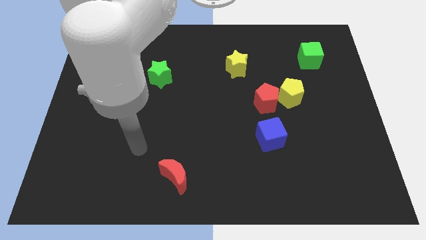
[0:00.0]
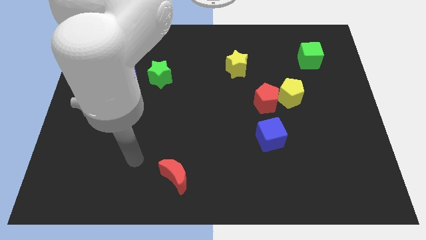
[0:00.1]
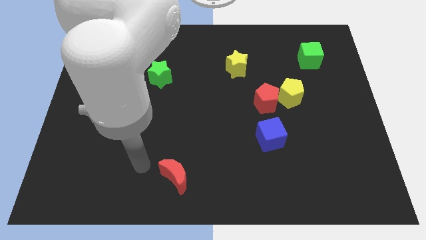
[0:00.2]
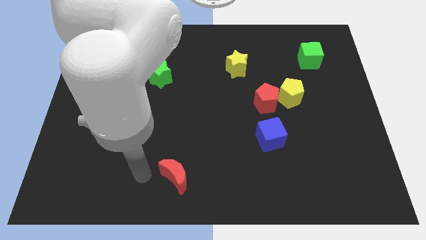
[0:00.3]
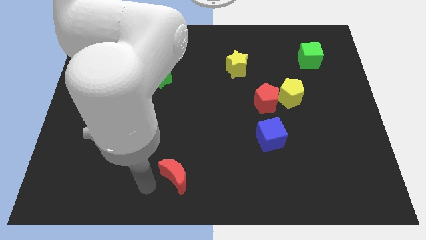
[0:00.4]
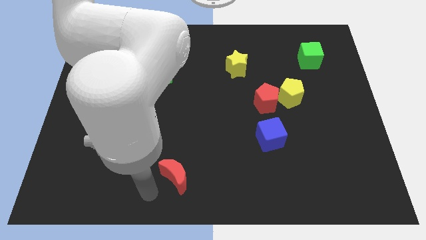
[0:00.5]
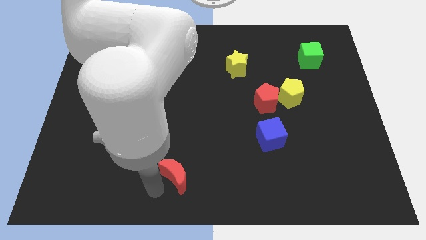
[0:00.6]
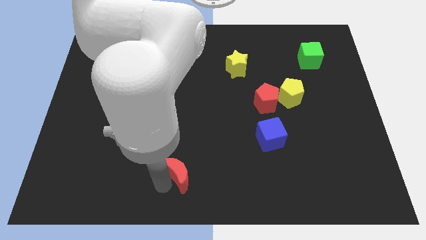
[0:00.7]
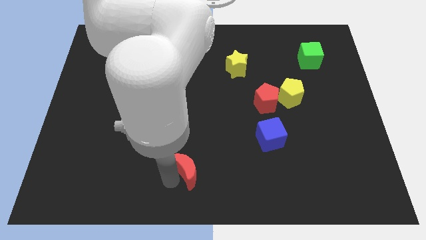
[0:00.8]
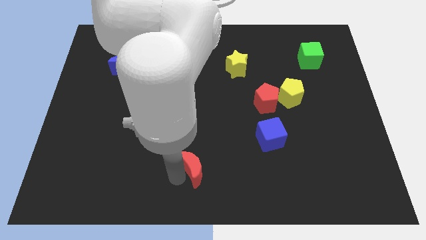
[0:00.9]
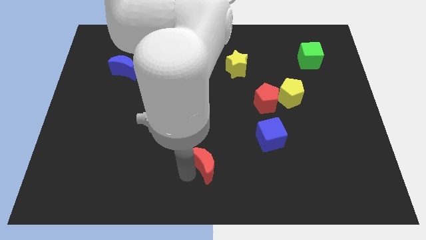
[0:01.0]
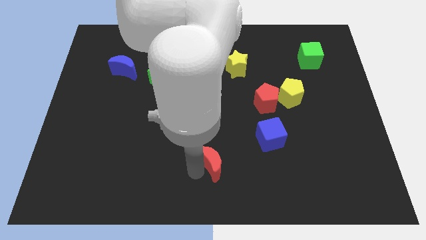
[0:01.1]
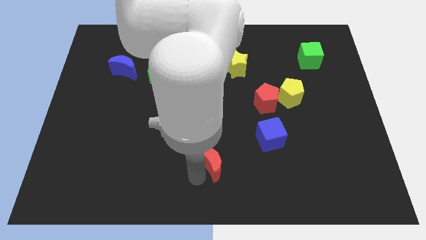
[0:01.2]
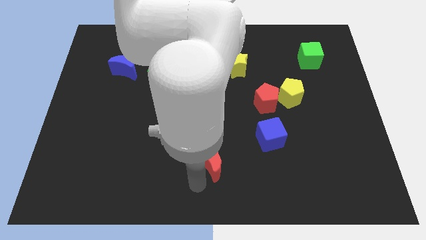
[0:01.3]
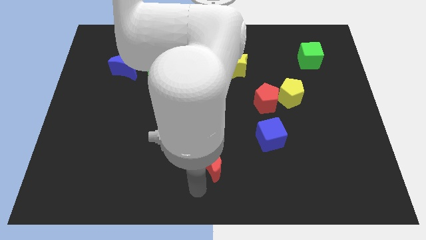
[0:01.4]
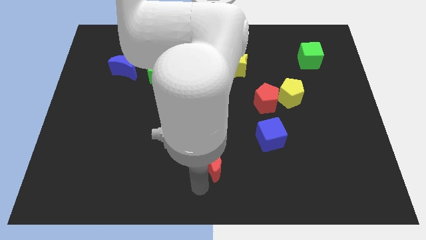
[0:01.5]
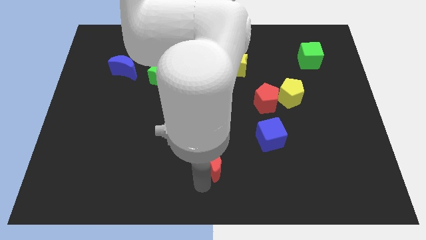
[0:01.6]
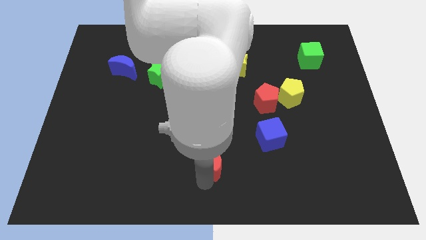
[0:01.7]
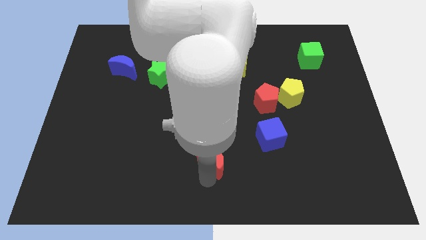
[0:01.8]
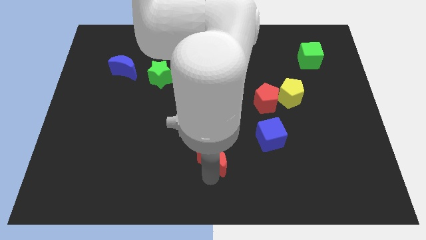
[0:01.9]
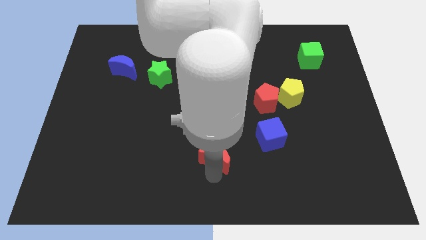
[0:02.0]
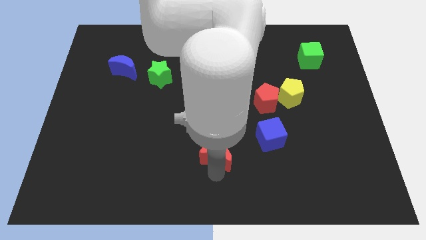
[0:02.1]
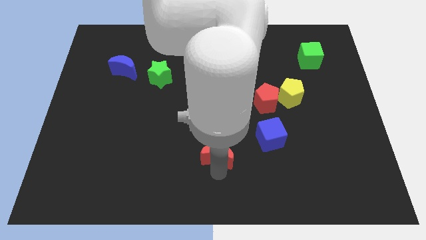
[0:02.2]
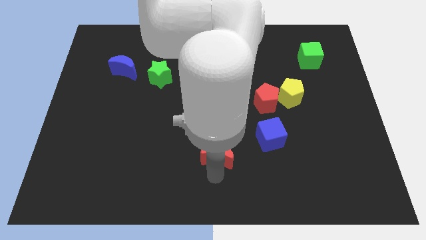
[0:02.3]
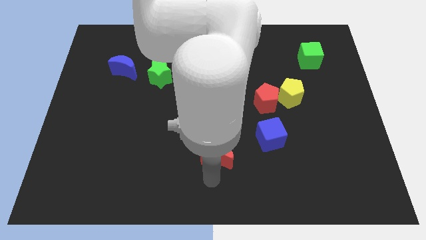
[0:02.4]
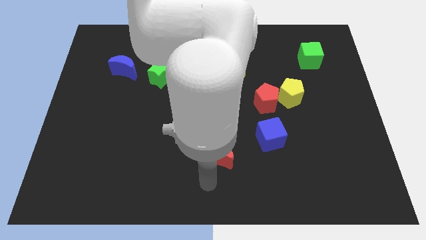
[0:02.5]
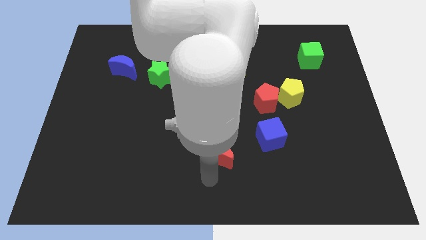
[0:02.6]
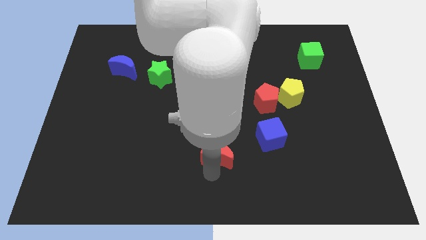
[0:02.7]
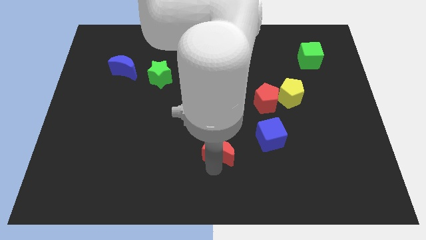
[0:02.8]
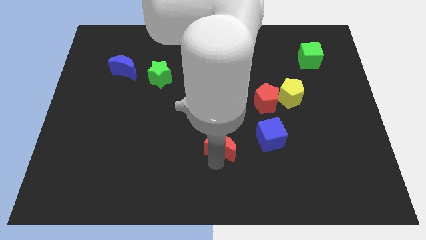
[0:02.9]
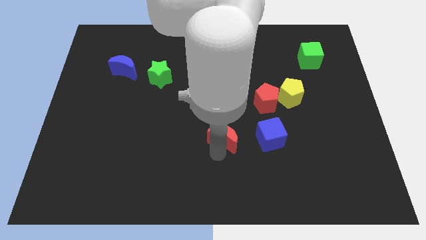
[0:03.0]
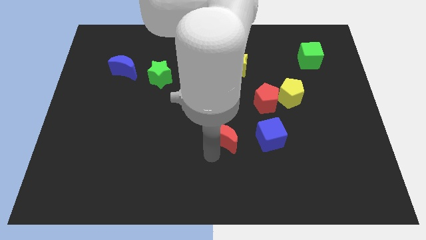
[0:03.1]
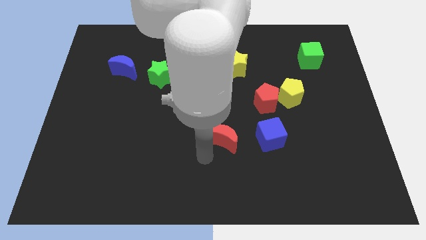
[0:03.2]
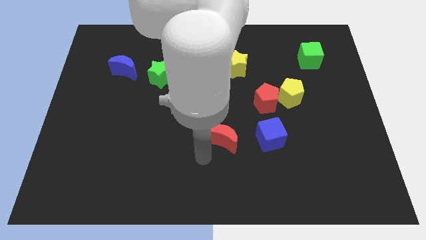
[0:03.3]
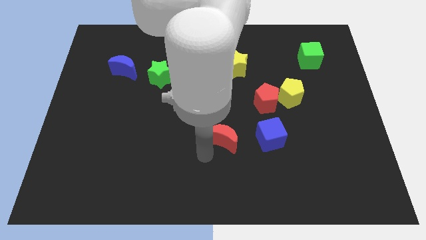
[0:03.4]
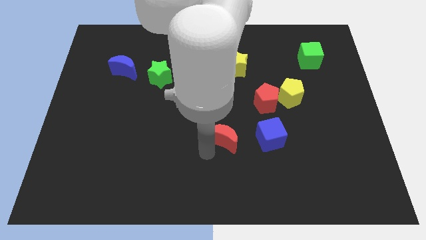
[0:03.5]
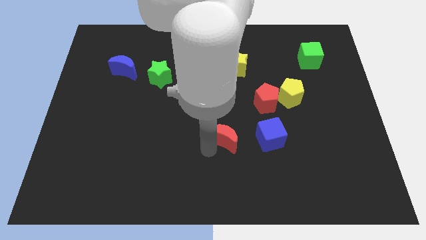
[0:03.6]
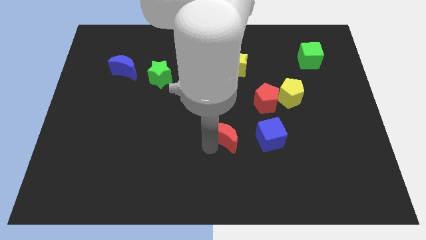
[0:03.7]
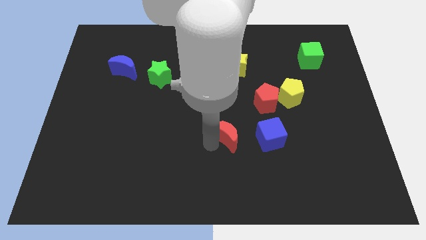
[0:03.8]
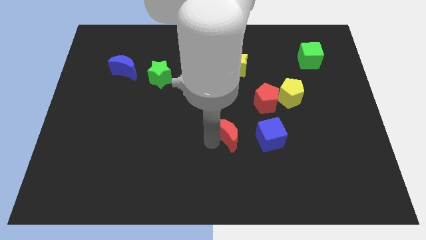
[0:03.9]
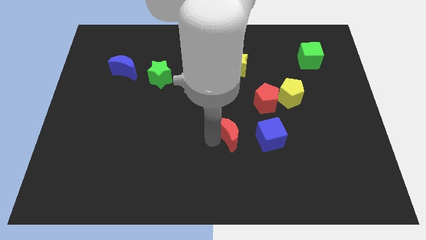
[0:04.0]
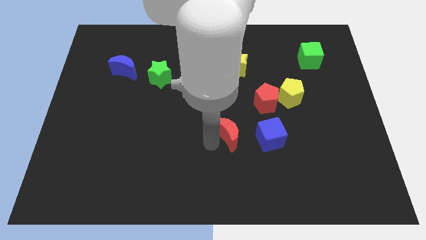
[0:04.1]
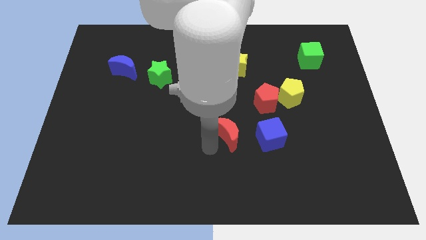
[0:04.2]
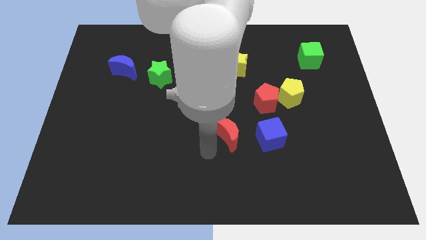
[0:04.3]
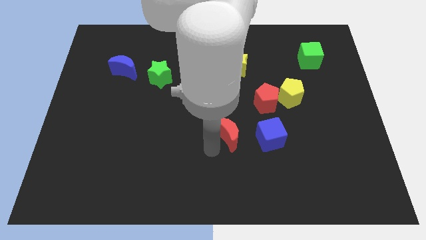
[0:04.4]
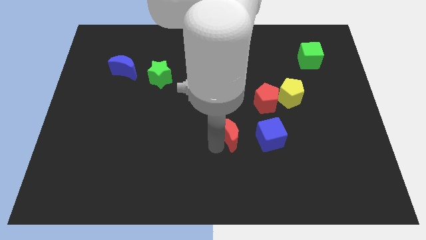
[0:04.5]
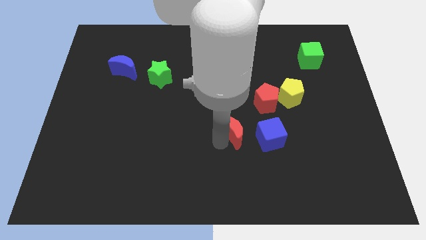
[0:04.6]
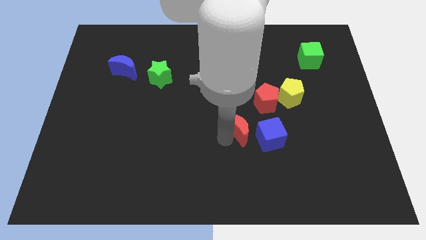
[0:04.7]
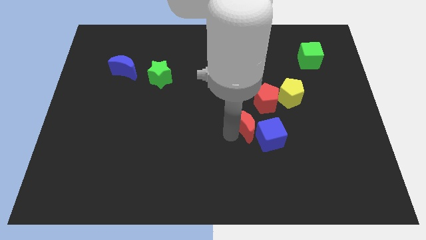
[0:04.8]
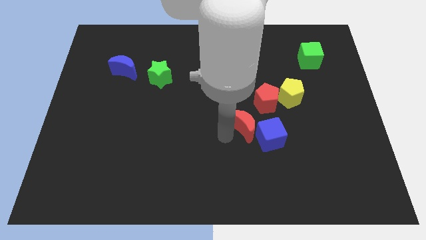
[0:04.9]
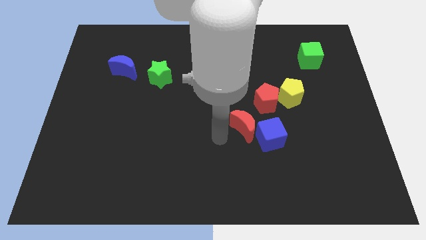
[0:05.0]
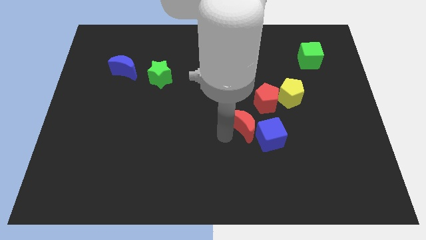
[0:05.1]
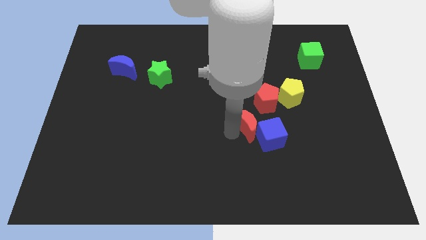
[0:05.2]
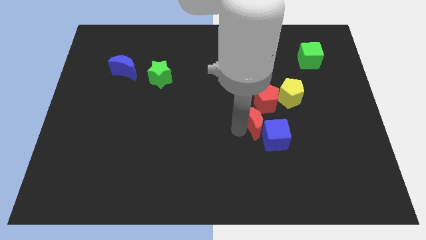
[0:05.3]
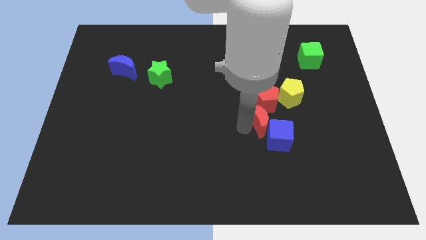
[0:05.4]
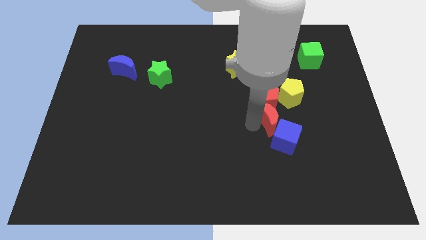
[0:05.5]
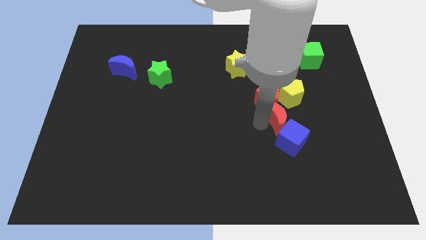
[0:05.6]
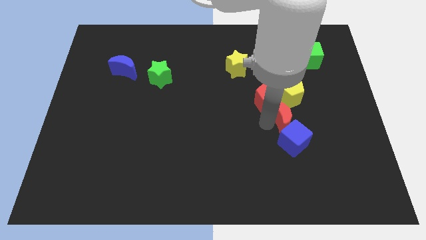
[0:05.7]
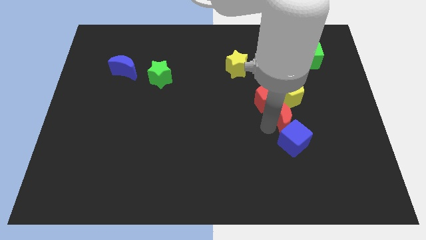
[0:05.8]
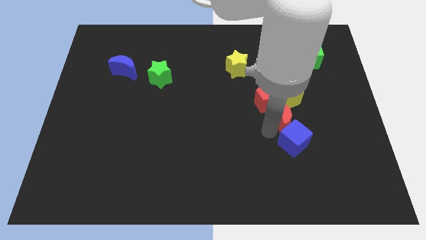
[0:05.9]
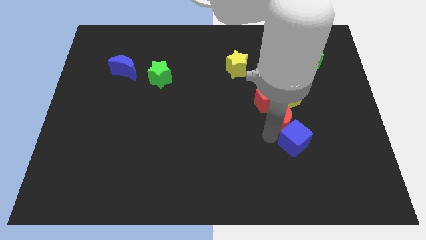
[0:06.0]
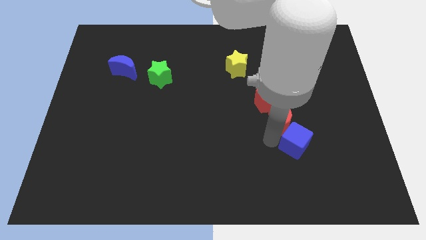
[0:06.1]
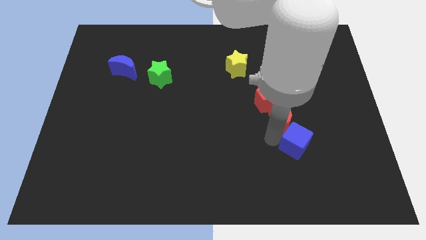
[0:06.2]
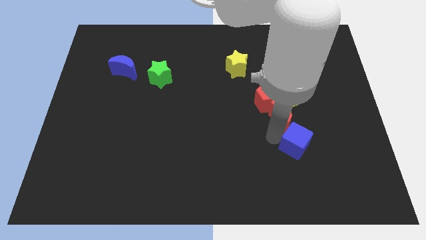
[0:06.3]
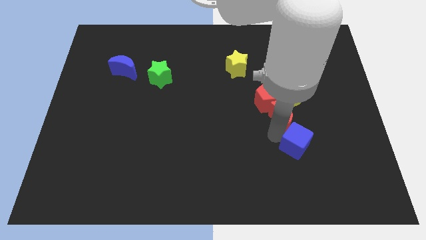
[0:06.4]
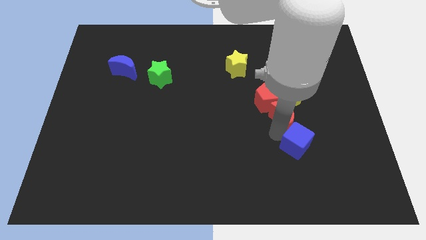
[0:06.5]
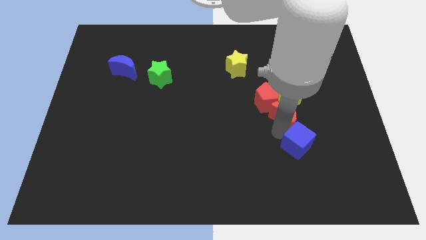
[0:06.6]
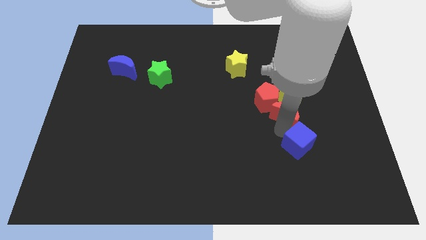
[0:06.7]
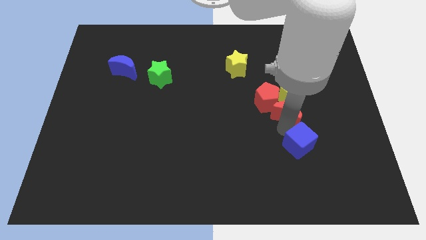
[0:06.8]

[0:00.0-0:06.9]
slide the red moon to the yellow pentagon
